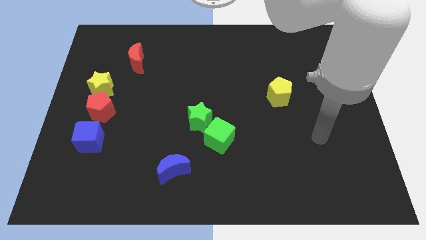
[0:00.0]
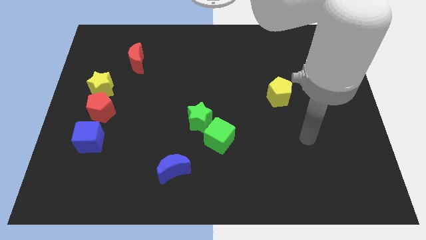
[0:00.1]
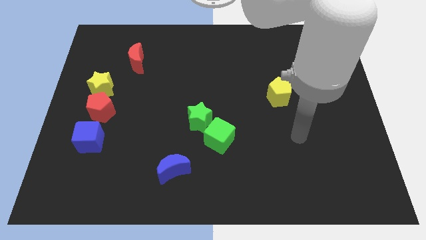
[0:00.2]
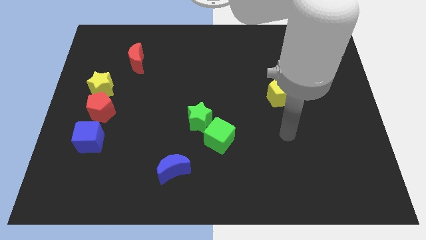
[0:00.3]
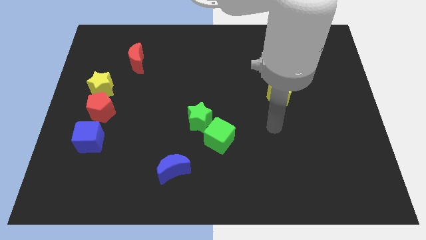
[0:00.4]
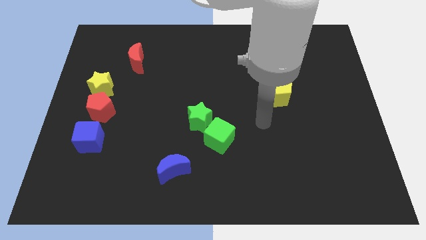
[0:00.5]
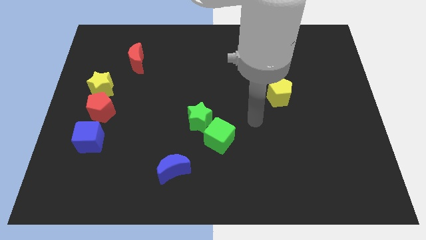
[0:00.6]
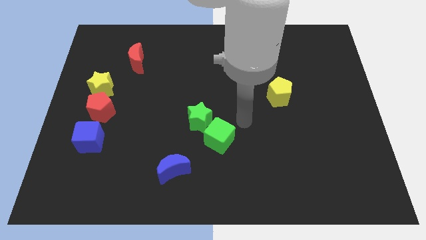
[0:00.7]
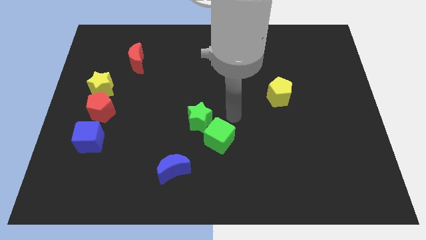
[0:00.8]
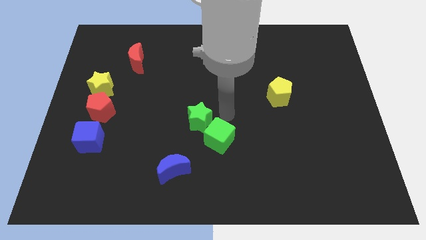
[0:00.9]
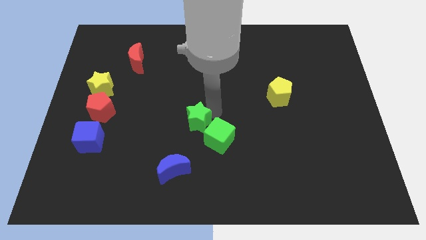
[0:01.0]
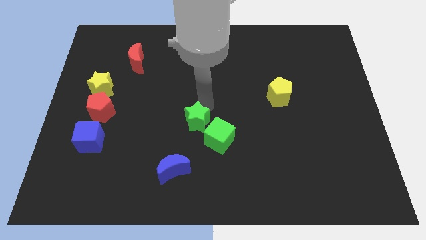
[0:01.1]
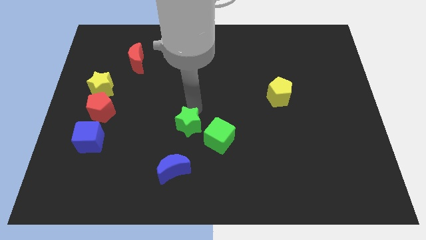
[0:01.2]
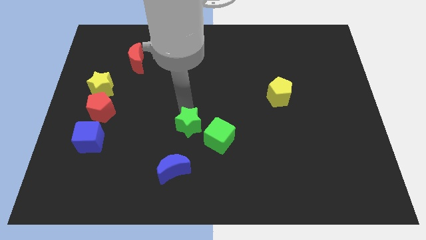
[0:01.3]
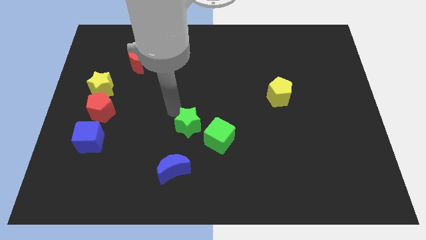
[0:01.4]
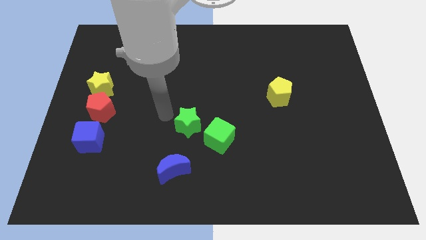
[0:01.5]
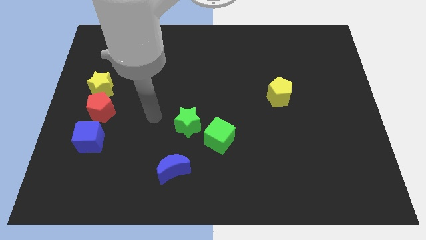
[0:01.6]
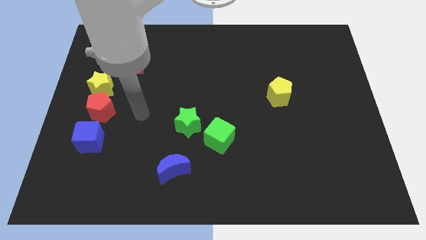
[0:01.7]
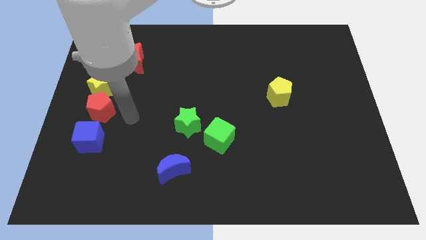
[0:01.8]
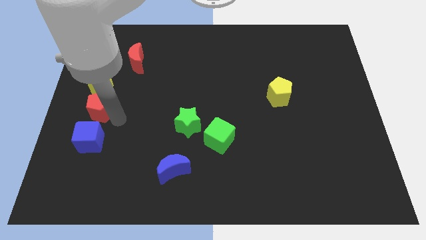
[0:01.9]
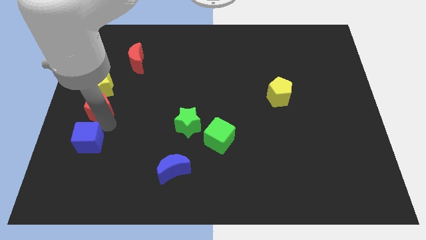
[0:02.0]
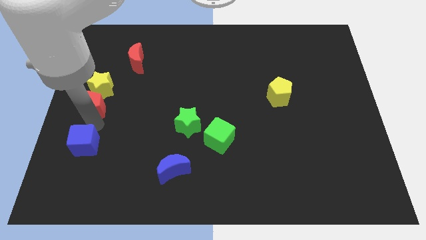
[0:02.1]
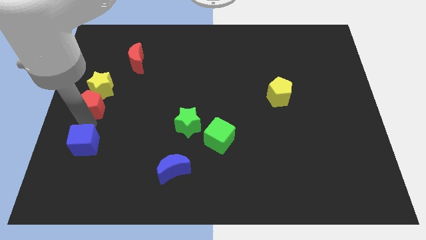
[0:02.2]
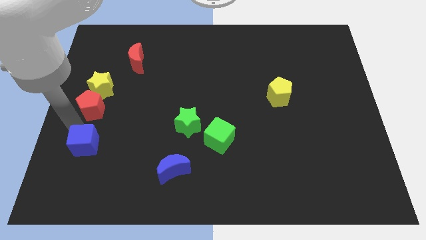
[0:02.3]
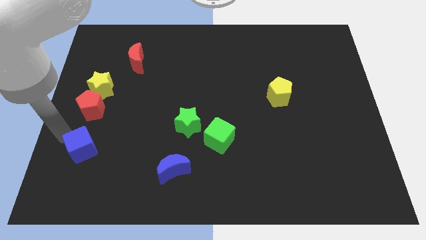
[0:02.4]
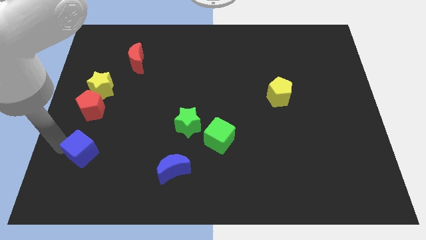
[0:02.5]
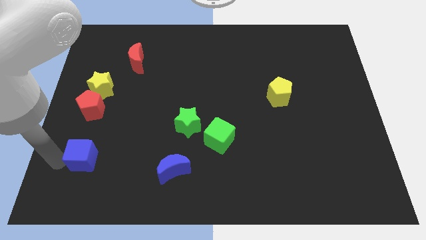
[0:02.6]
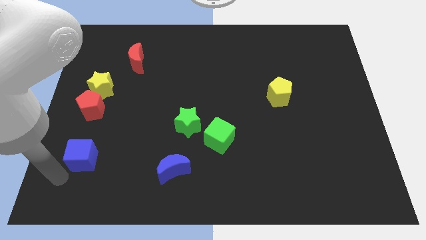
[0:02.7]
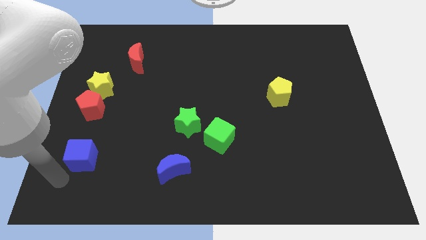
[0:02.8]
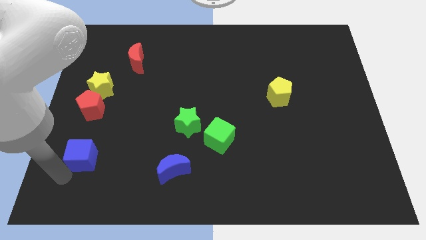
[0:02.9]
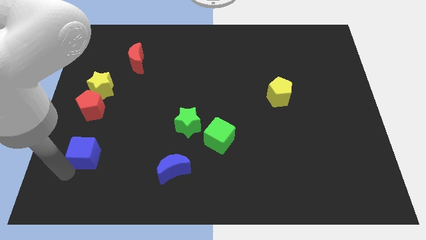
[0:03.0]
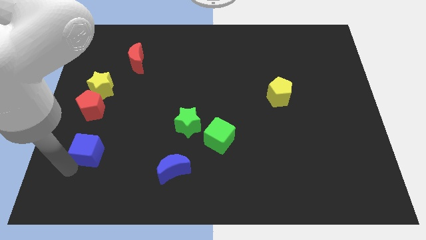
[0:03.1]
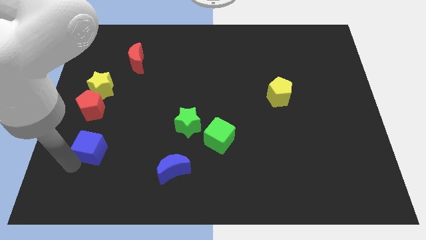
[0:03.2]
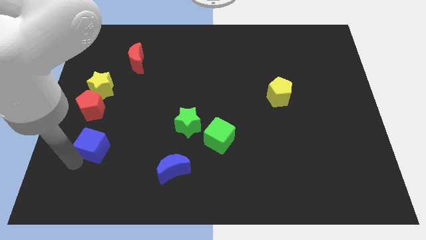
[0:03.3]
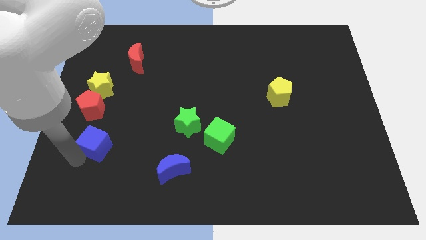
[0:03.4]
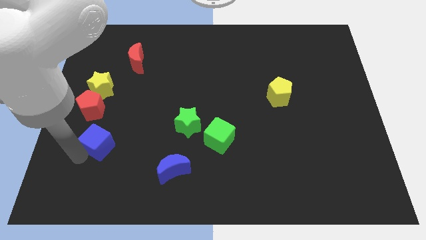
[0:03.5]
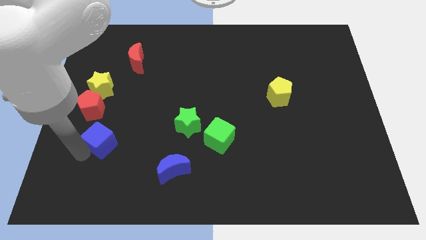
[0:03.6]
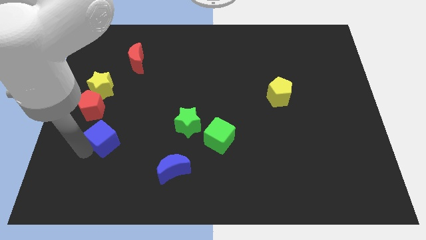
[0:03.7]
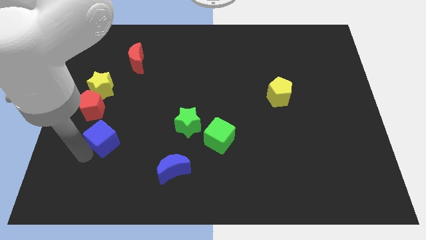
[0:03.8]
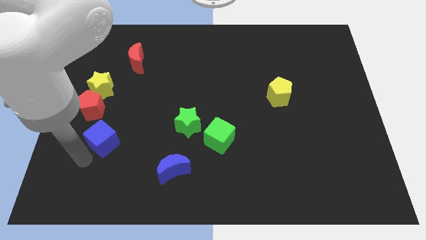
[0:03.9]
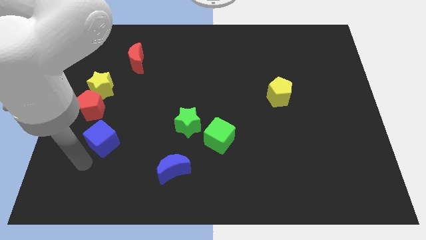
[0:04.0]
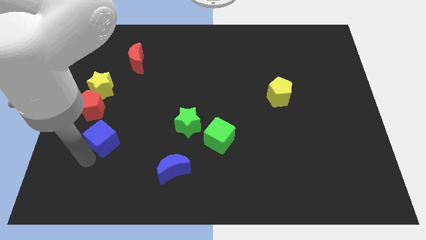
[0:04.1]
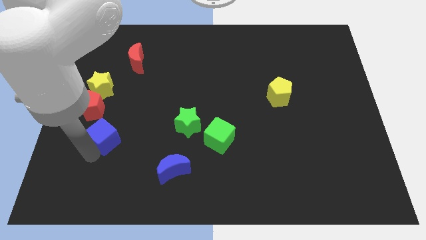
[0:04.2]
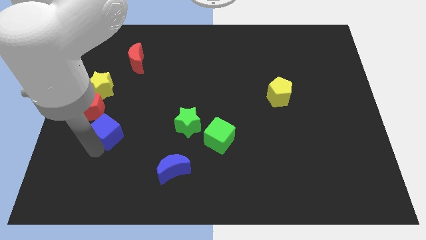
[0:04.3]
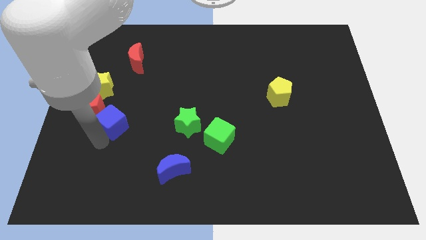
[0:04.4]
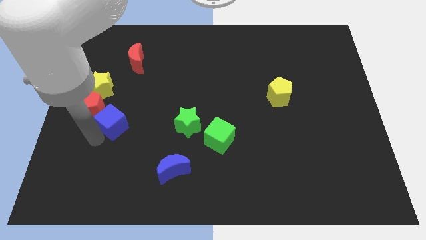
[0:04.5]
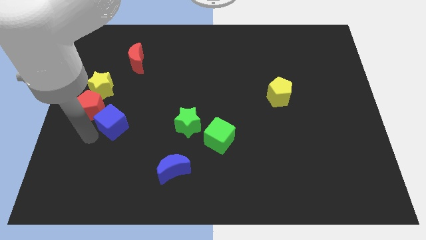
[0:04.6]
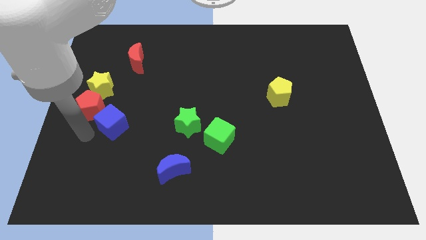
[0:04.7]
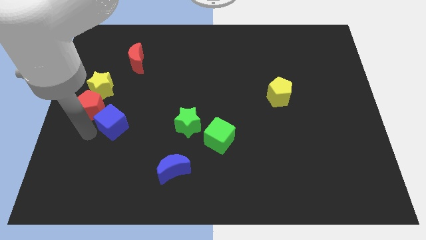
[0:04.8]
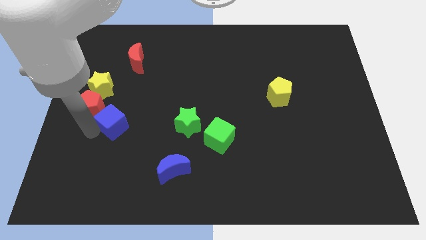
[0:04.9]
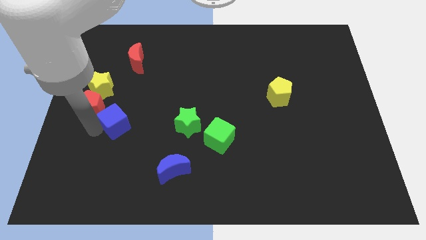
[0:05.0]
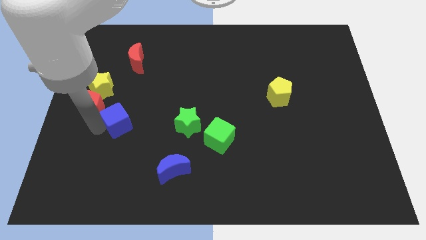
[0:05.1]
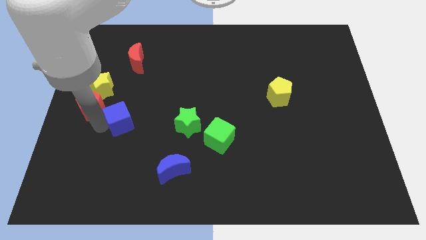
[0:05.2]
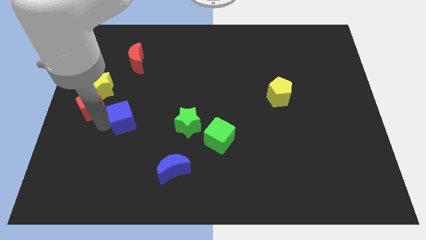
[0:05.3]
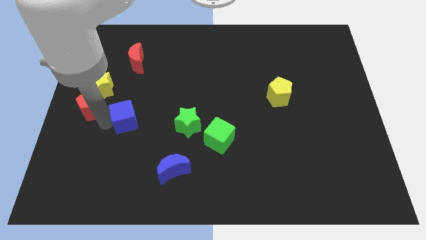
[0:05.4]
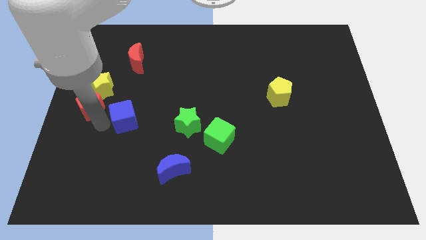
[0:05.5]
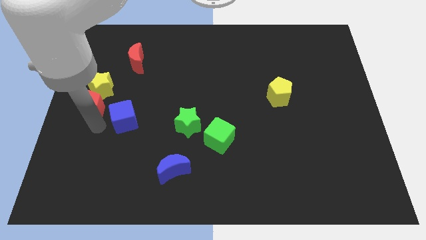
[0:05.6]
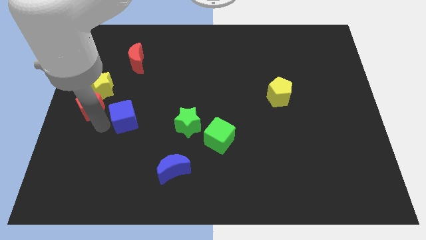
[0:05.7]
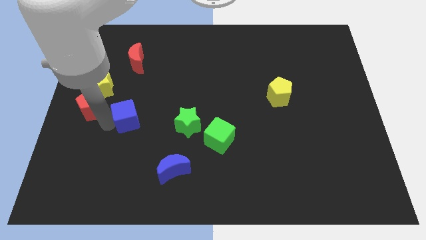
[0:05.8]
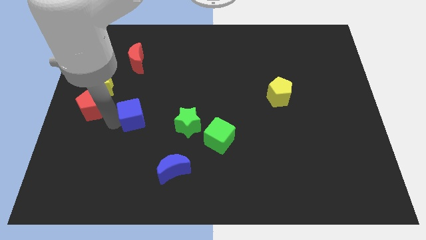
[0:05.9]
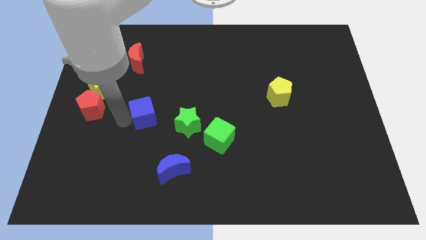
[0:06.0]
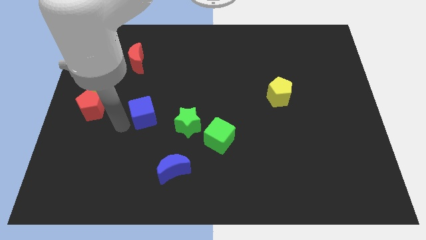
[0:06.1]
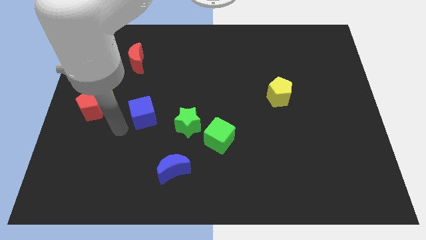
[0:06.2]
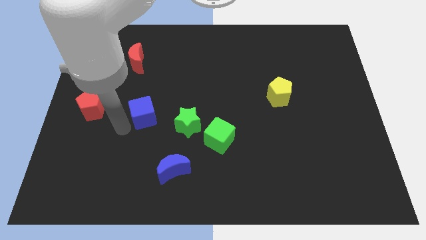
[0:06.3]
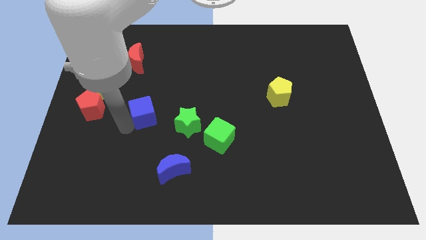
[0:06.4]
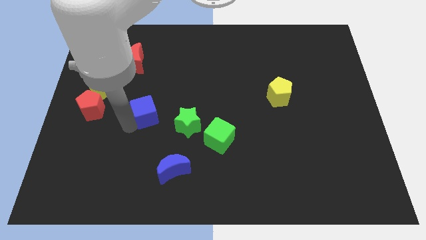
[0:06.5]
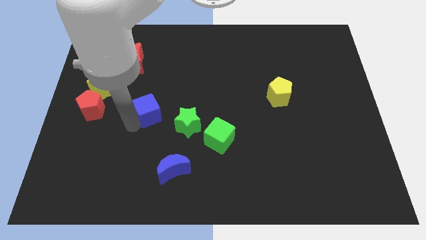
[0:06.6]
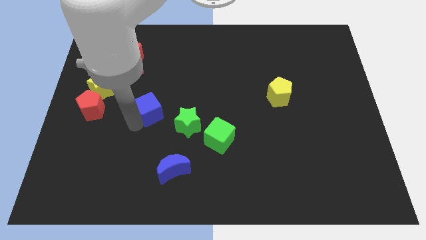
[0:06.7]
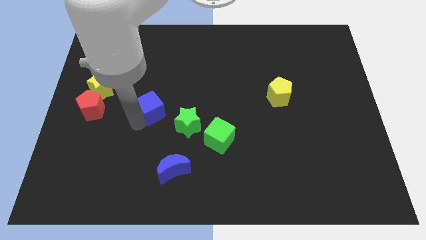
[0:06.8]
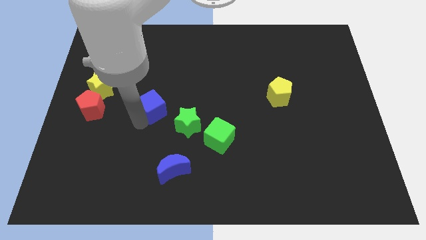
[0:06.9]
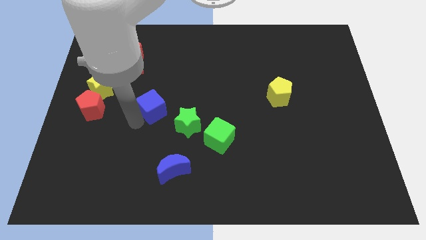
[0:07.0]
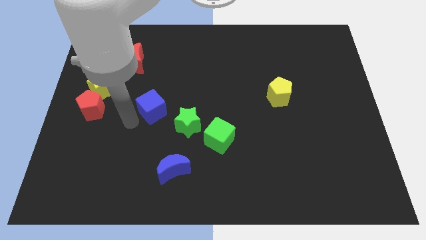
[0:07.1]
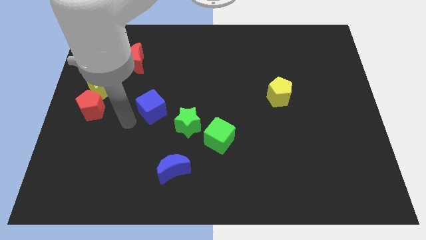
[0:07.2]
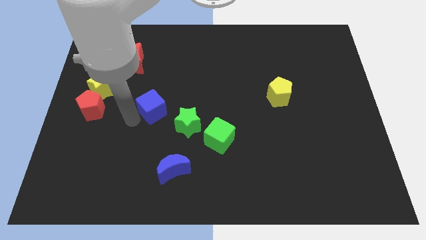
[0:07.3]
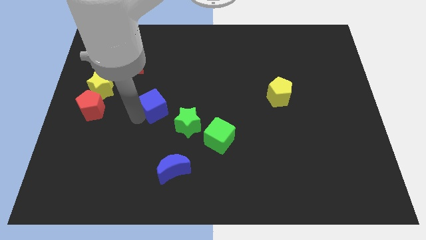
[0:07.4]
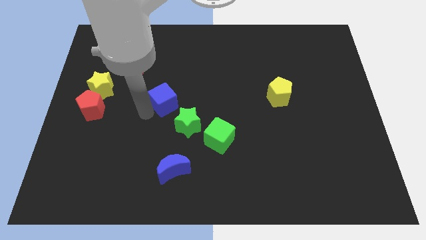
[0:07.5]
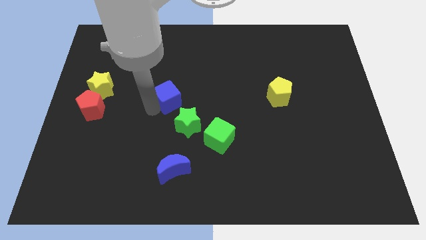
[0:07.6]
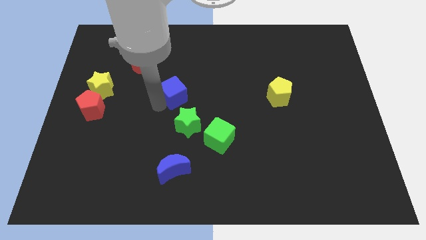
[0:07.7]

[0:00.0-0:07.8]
slide the blue cube above the green star
